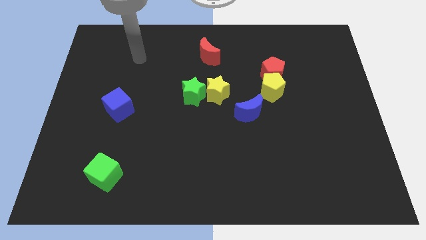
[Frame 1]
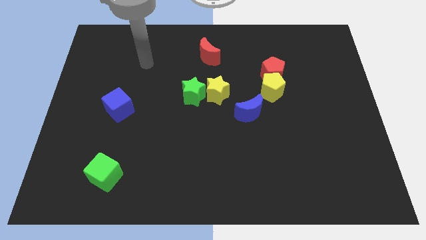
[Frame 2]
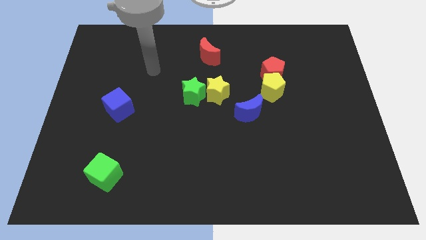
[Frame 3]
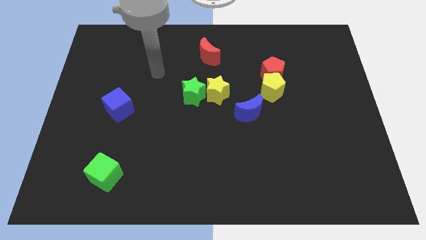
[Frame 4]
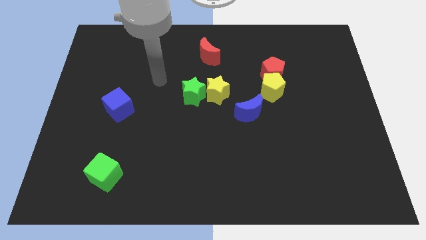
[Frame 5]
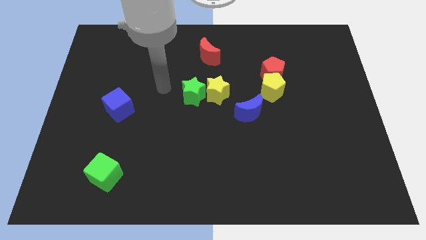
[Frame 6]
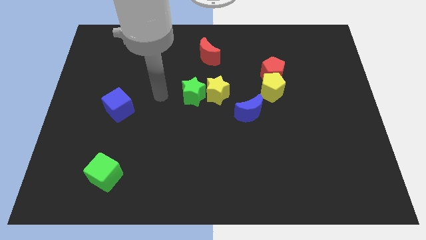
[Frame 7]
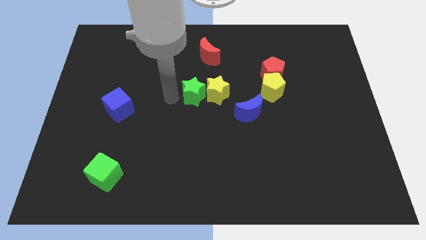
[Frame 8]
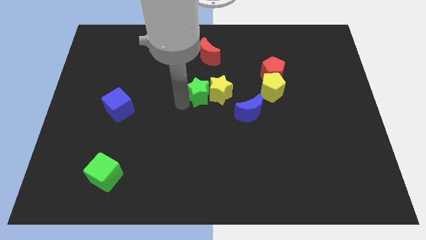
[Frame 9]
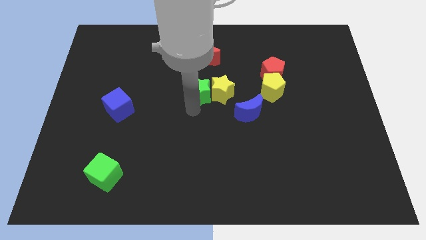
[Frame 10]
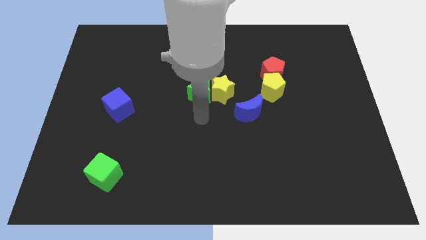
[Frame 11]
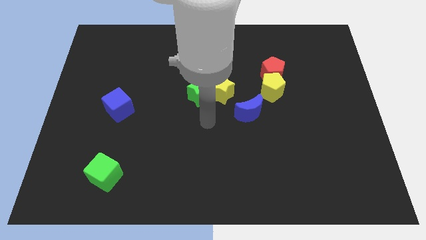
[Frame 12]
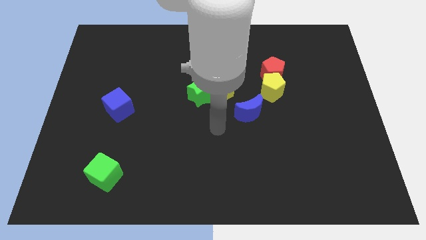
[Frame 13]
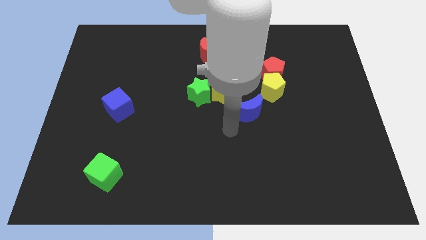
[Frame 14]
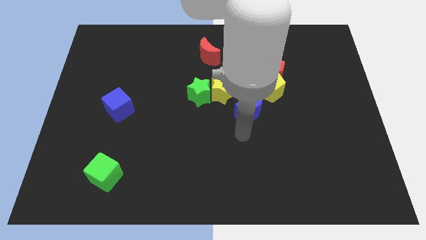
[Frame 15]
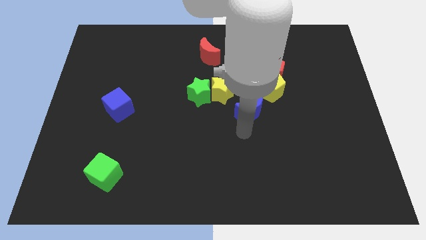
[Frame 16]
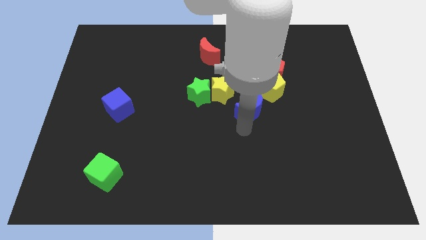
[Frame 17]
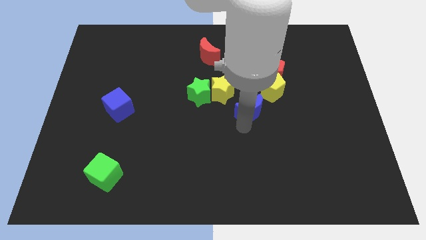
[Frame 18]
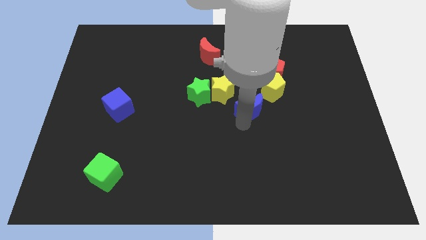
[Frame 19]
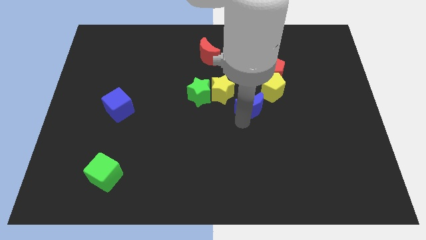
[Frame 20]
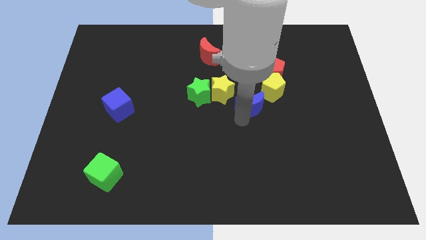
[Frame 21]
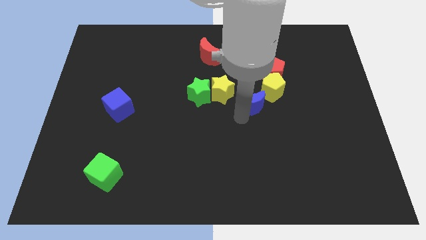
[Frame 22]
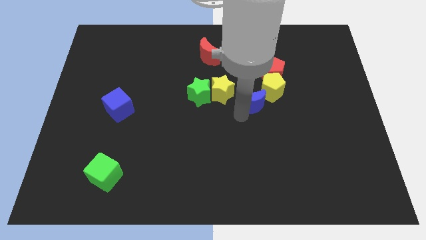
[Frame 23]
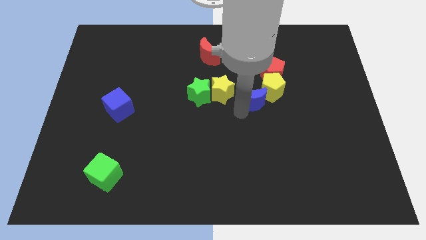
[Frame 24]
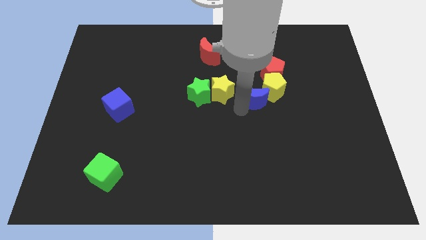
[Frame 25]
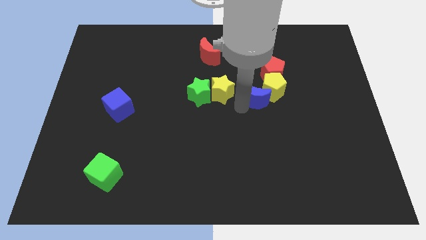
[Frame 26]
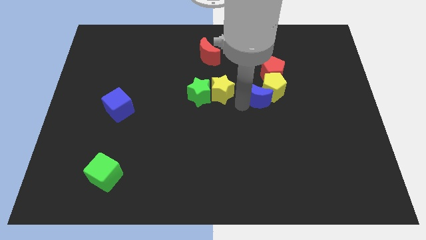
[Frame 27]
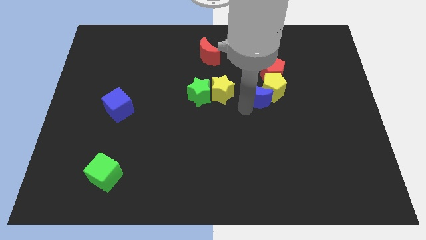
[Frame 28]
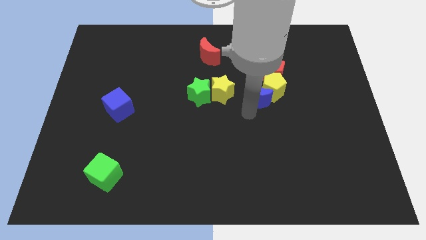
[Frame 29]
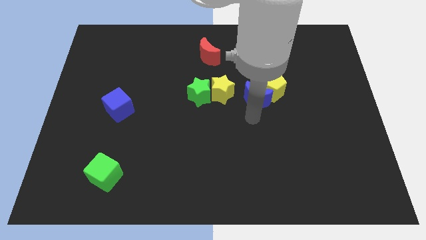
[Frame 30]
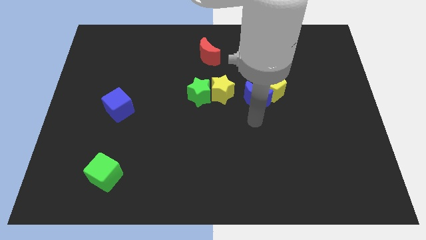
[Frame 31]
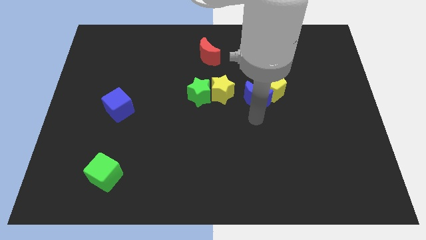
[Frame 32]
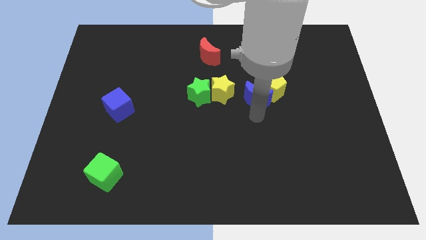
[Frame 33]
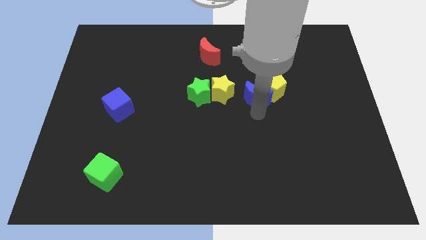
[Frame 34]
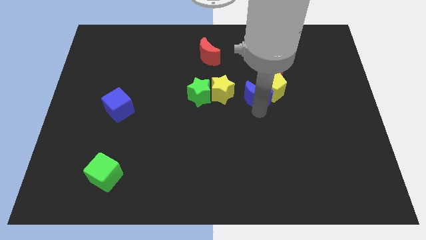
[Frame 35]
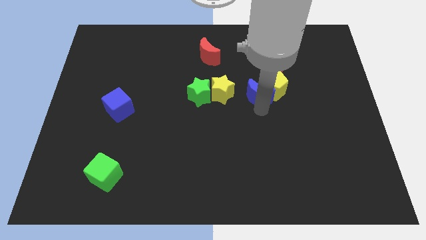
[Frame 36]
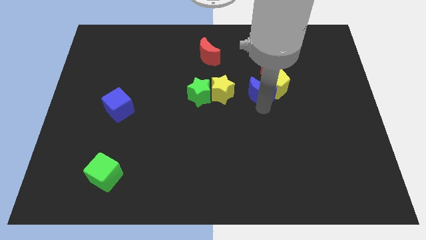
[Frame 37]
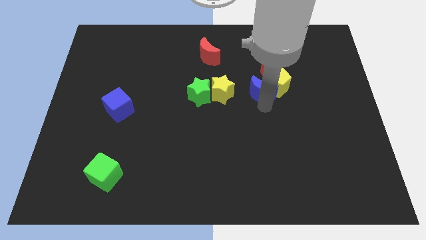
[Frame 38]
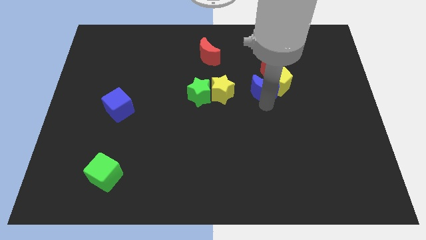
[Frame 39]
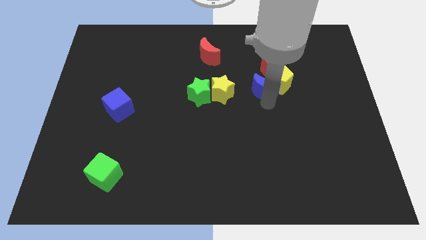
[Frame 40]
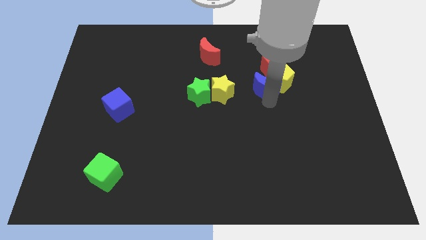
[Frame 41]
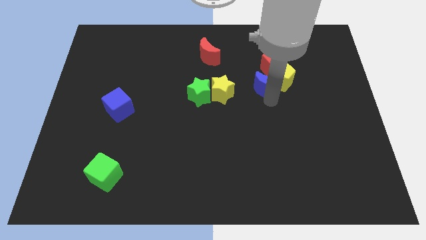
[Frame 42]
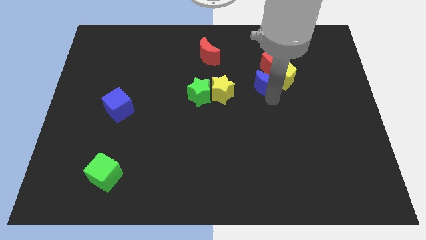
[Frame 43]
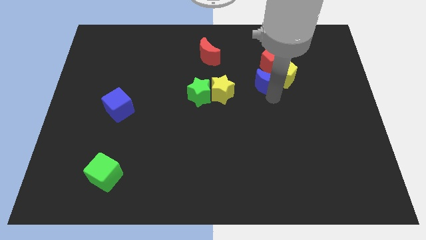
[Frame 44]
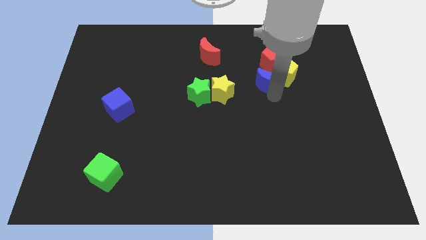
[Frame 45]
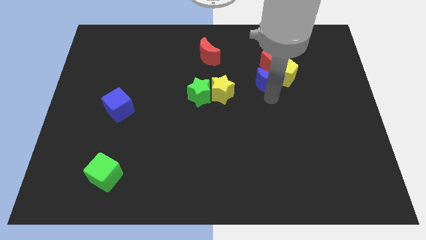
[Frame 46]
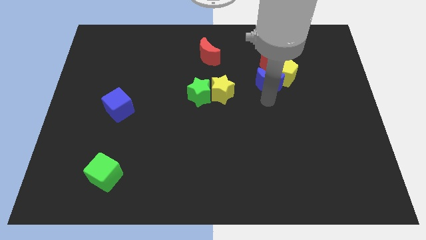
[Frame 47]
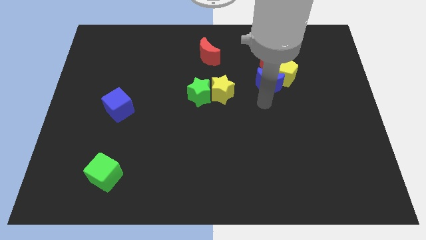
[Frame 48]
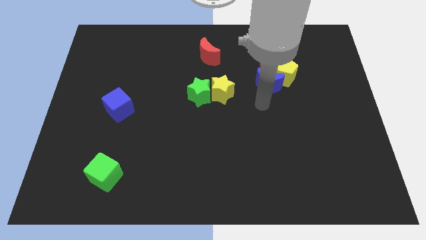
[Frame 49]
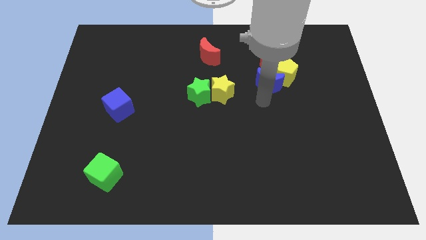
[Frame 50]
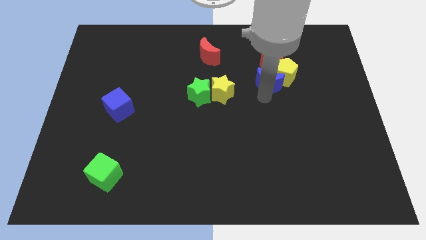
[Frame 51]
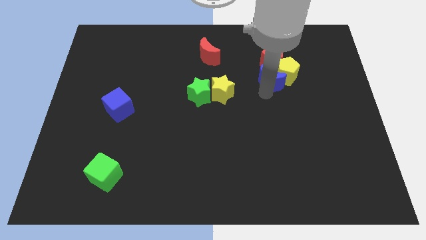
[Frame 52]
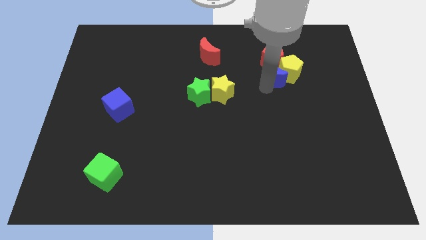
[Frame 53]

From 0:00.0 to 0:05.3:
push the blue moon towards the red pentagon

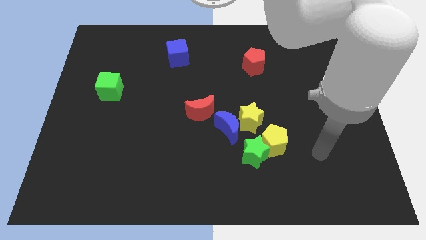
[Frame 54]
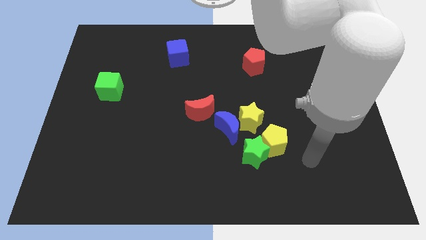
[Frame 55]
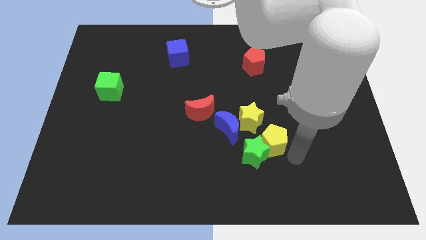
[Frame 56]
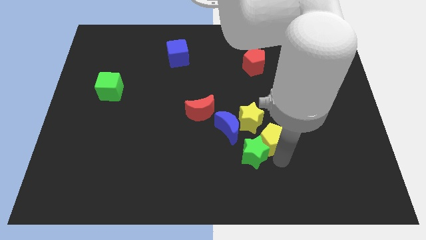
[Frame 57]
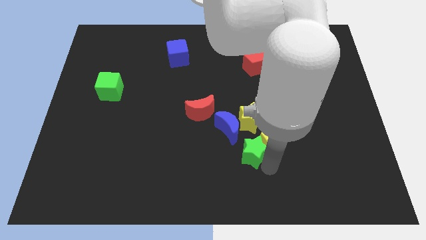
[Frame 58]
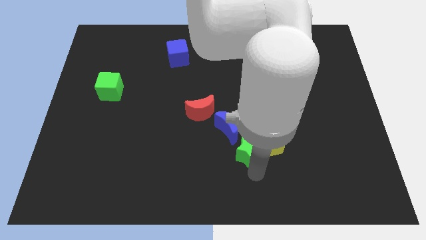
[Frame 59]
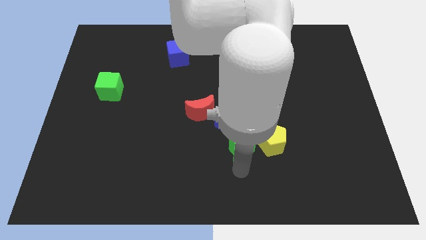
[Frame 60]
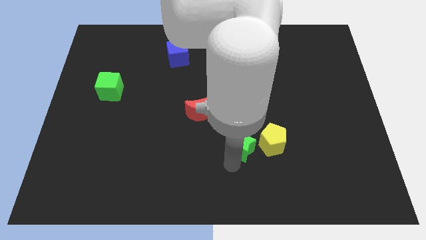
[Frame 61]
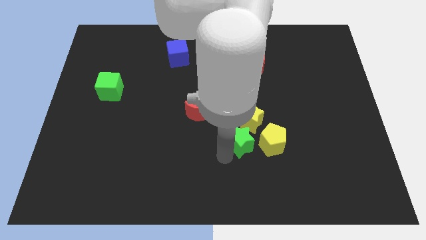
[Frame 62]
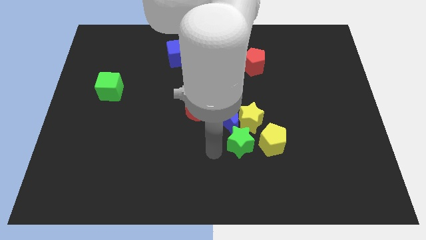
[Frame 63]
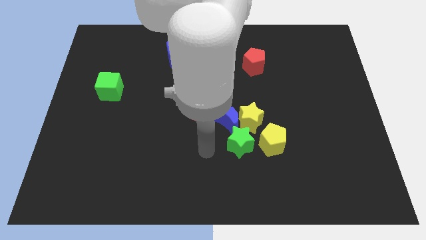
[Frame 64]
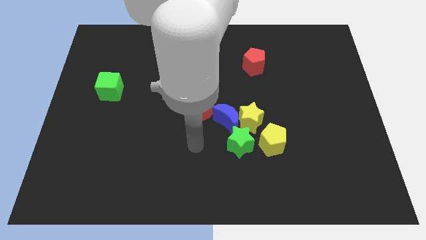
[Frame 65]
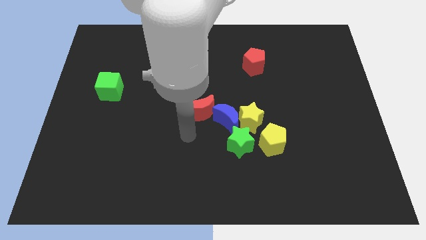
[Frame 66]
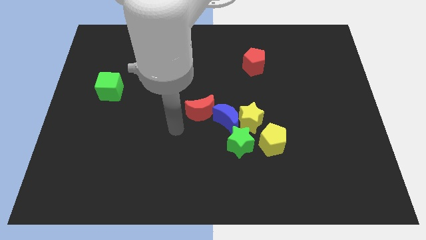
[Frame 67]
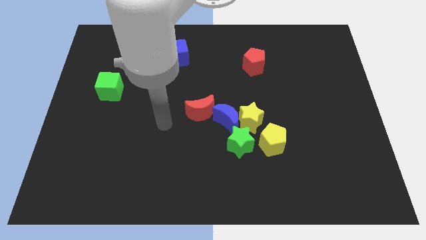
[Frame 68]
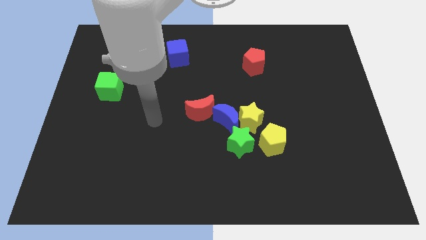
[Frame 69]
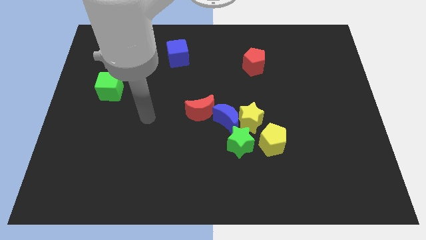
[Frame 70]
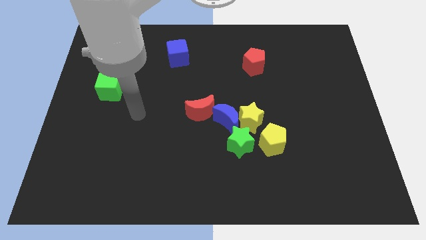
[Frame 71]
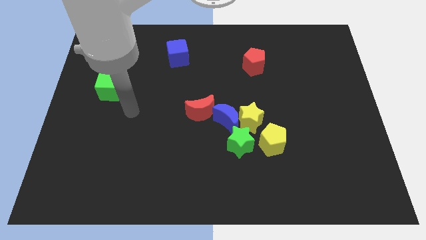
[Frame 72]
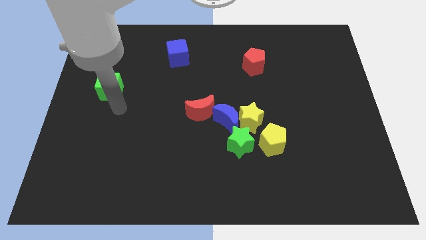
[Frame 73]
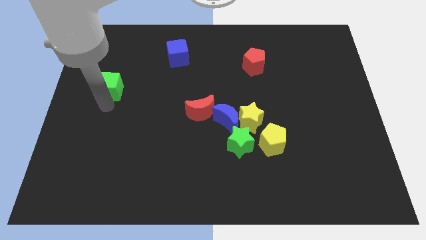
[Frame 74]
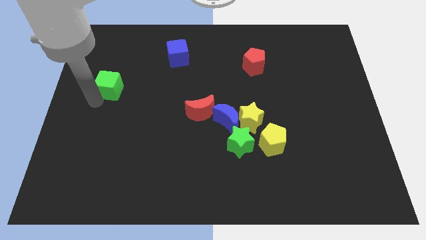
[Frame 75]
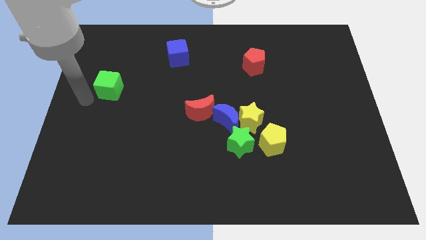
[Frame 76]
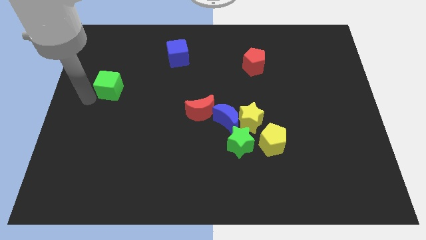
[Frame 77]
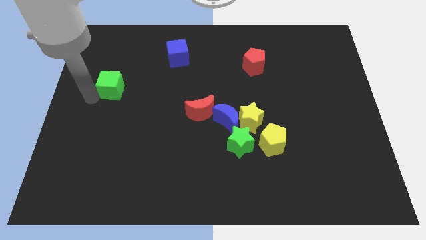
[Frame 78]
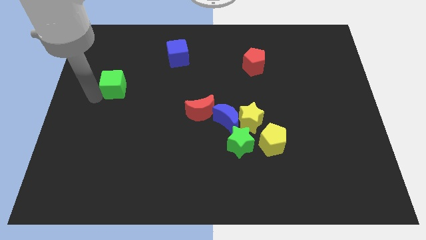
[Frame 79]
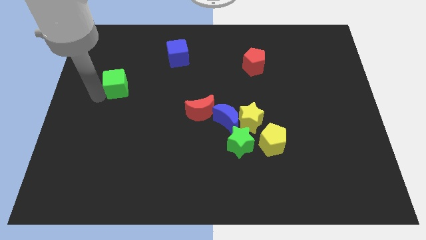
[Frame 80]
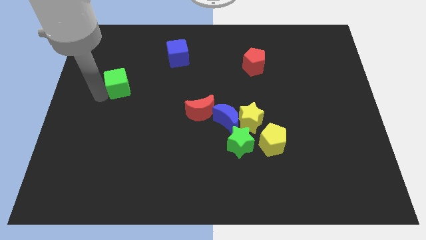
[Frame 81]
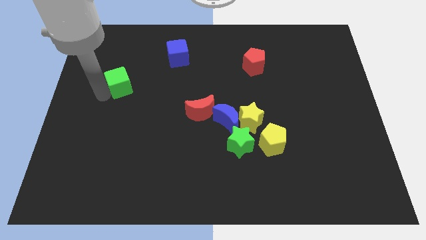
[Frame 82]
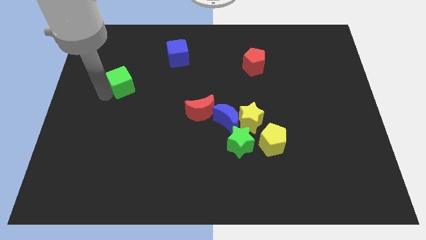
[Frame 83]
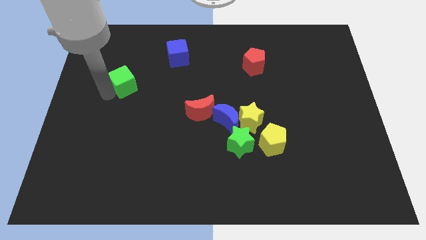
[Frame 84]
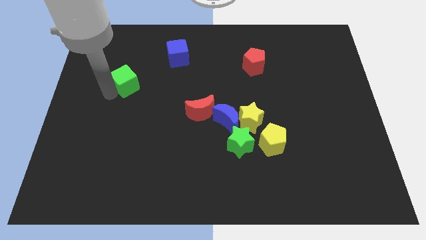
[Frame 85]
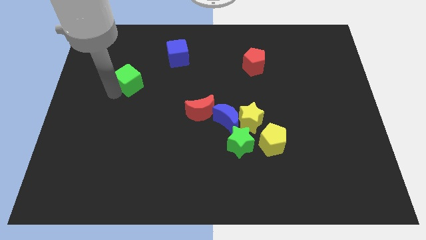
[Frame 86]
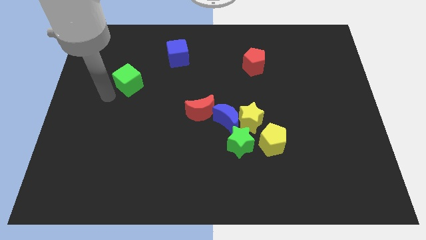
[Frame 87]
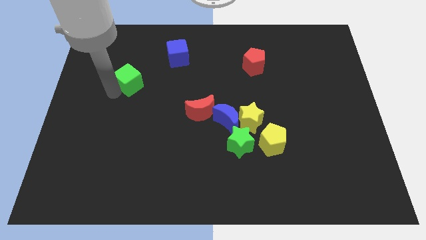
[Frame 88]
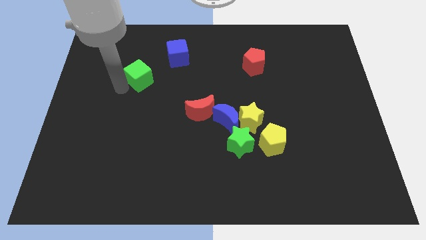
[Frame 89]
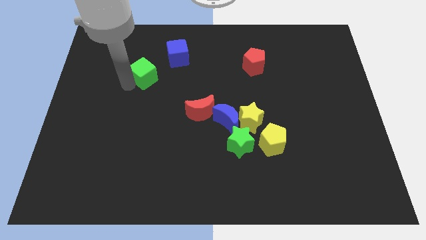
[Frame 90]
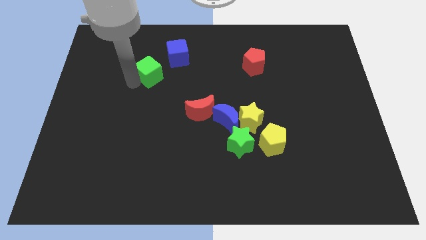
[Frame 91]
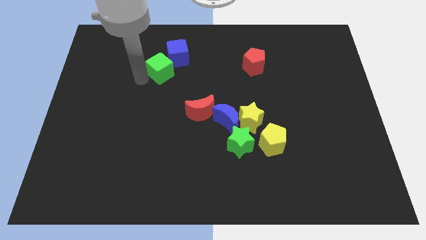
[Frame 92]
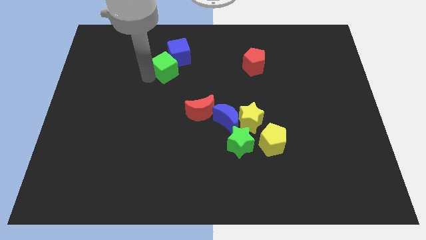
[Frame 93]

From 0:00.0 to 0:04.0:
put the green cube close to the blue cube
